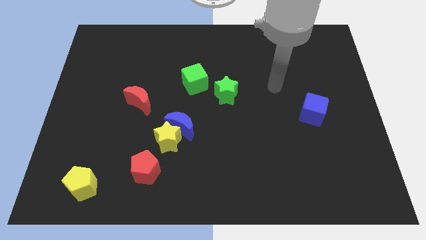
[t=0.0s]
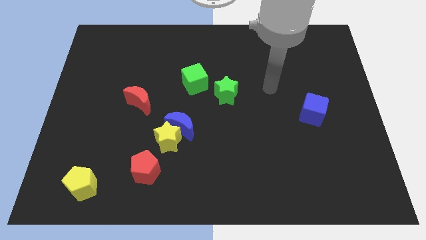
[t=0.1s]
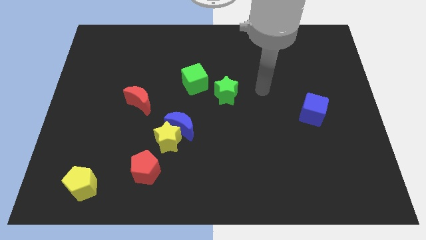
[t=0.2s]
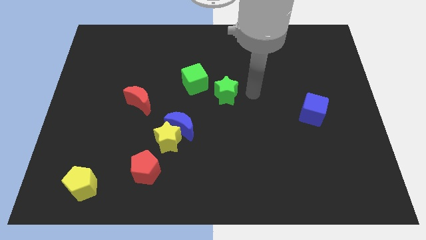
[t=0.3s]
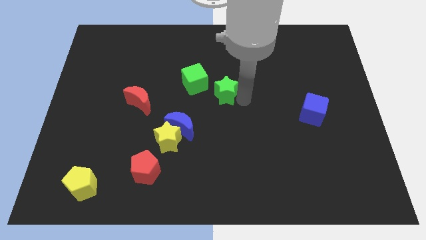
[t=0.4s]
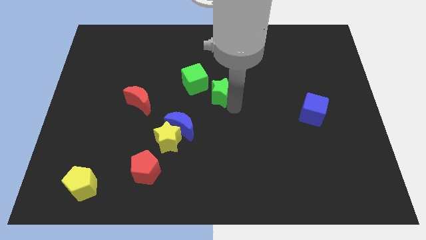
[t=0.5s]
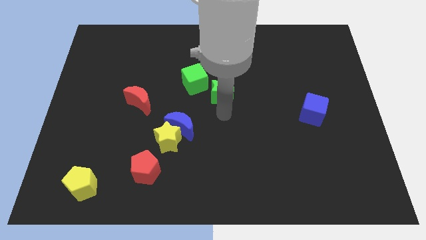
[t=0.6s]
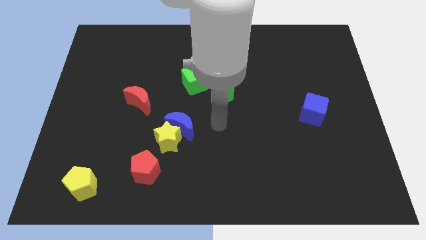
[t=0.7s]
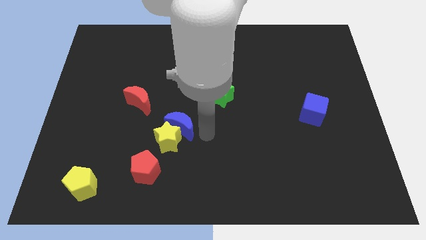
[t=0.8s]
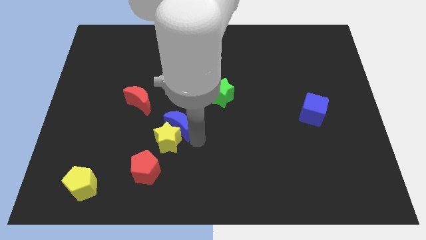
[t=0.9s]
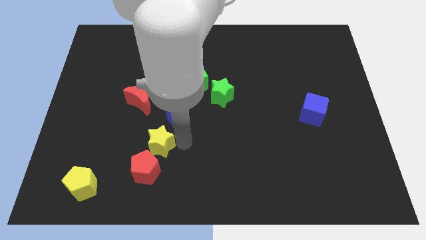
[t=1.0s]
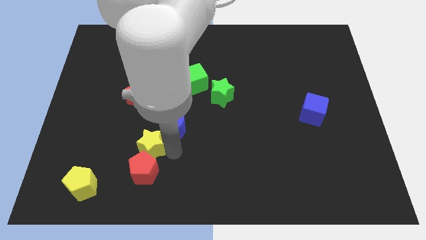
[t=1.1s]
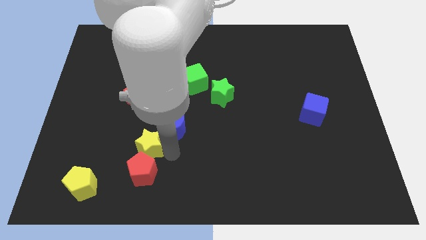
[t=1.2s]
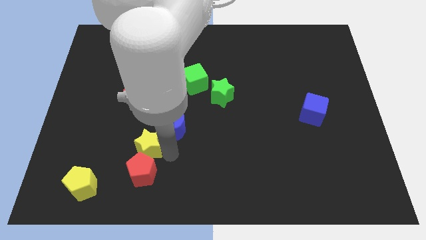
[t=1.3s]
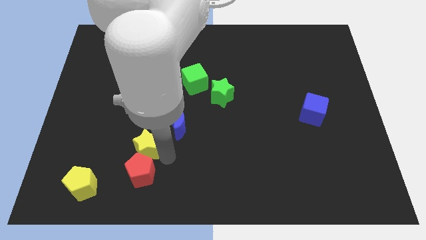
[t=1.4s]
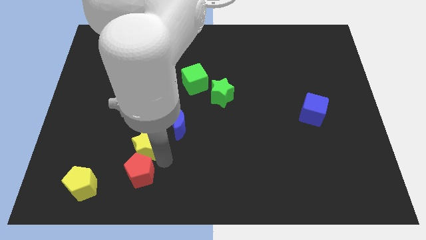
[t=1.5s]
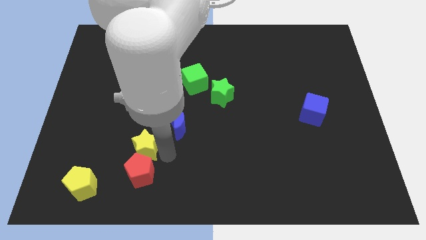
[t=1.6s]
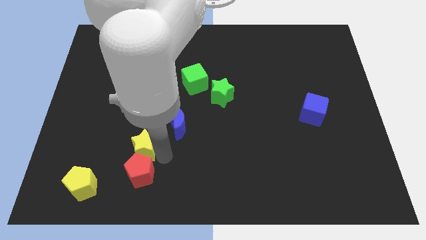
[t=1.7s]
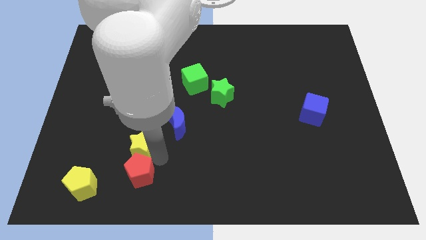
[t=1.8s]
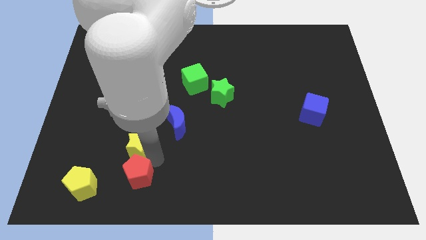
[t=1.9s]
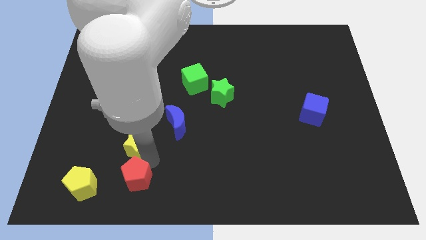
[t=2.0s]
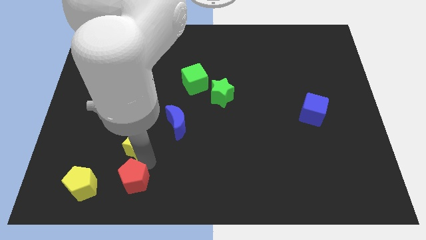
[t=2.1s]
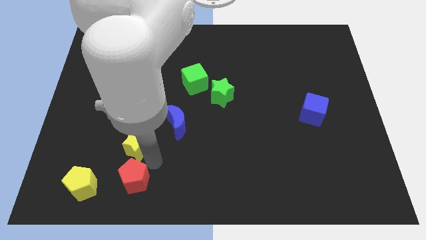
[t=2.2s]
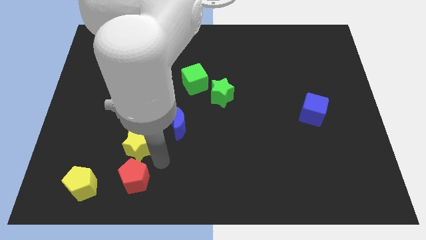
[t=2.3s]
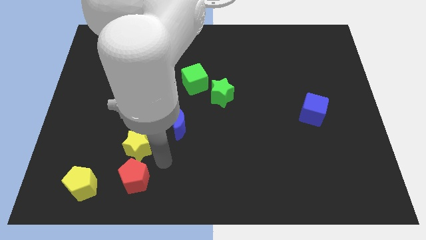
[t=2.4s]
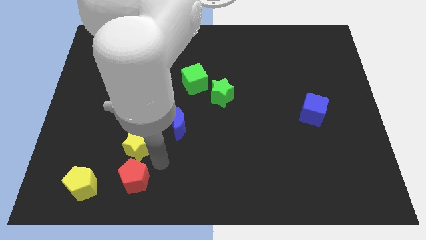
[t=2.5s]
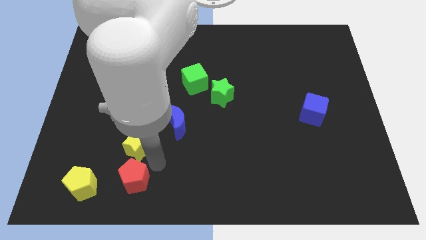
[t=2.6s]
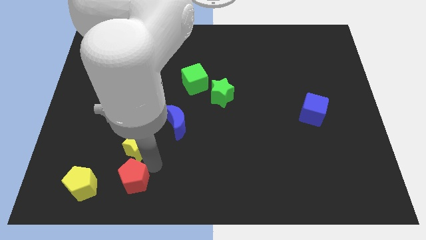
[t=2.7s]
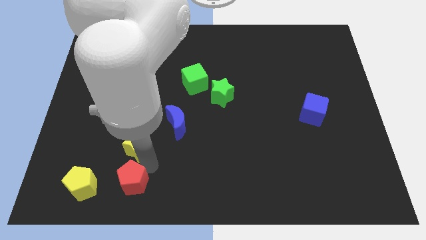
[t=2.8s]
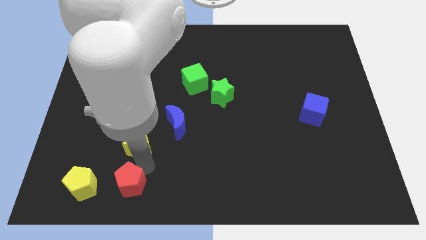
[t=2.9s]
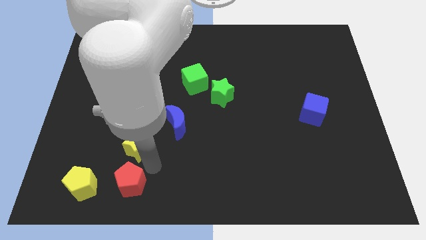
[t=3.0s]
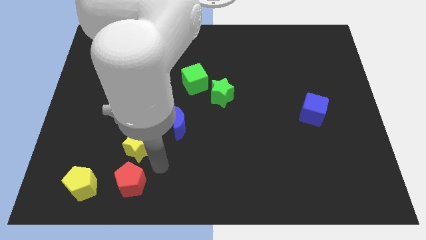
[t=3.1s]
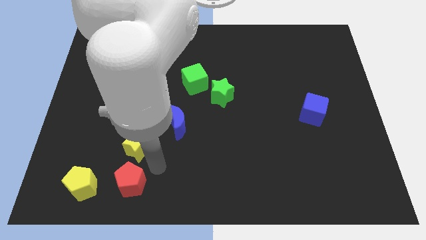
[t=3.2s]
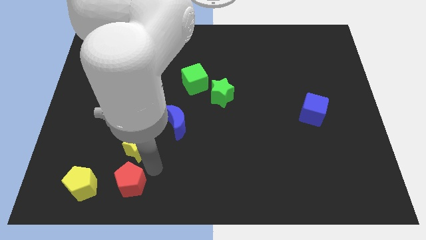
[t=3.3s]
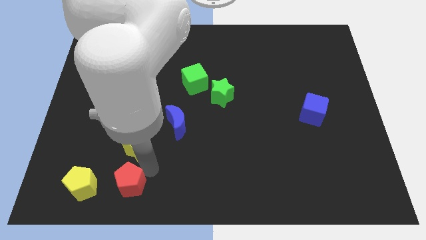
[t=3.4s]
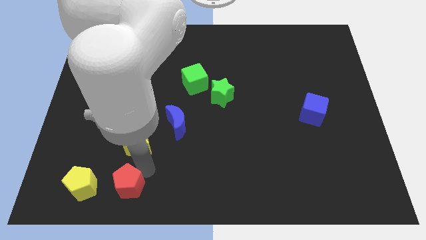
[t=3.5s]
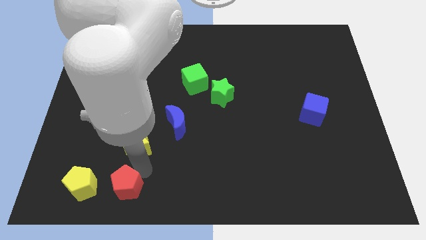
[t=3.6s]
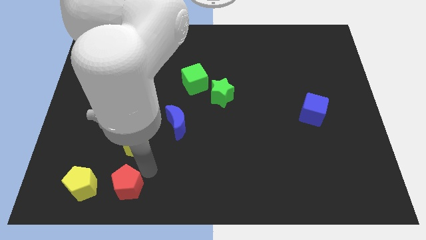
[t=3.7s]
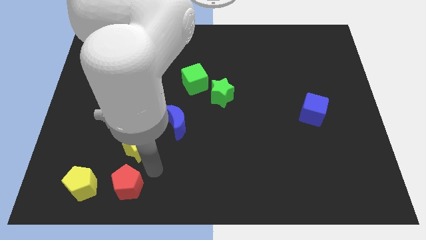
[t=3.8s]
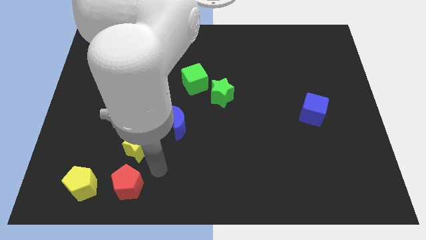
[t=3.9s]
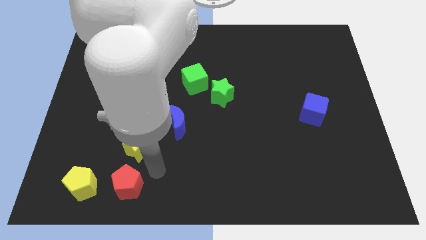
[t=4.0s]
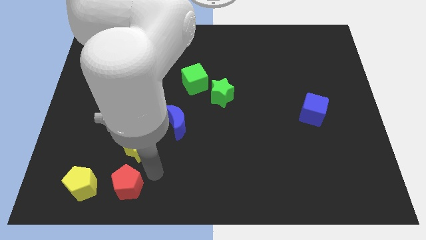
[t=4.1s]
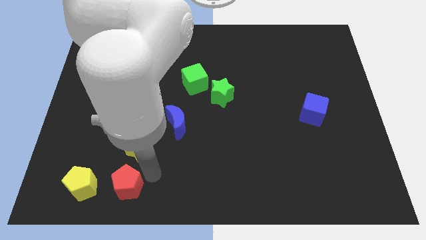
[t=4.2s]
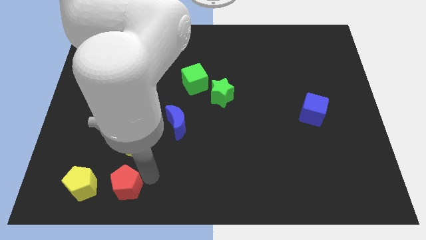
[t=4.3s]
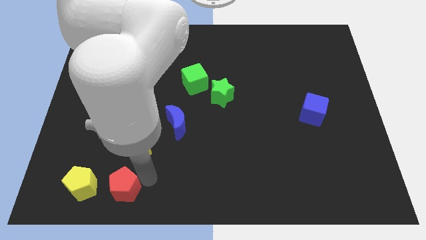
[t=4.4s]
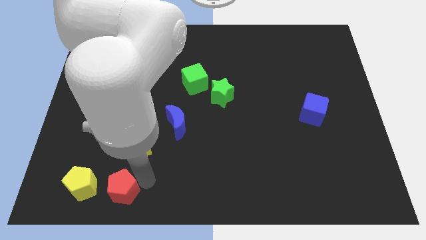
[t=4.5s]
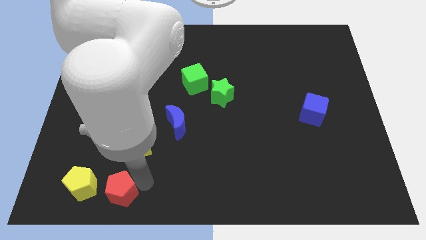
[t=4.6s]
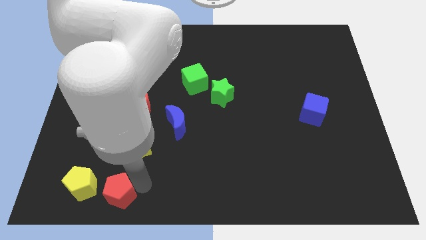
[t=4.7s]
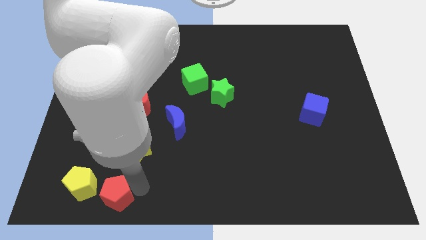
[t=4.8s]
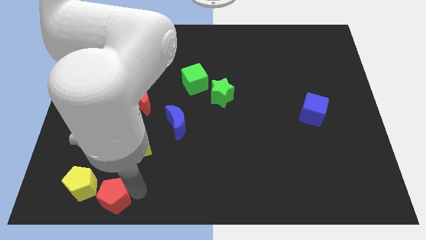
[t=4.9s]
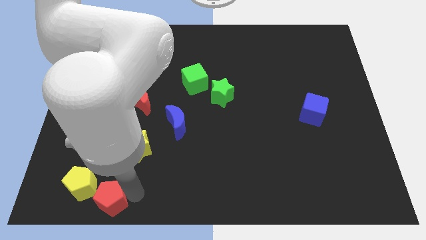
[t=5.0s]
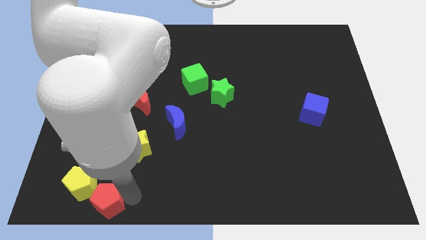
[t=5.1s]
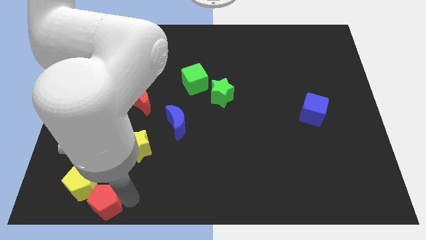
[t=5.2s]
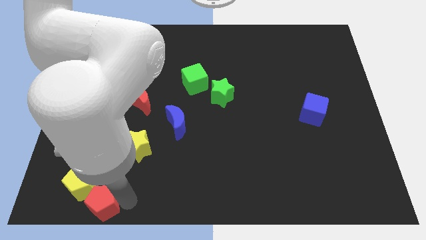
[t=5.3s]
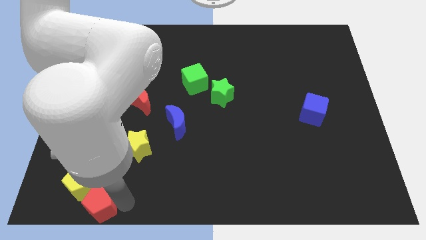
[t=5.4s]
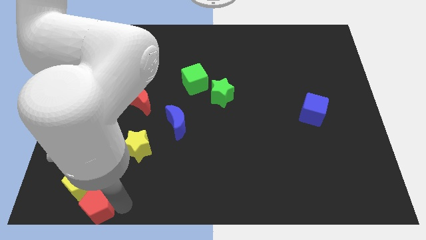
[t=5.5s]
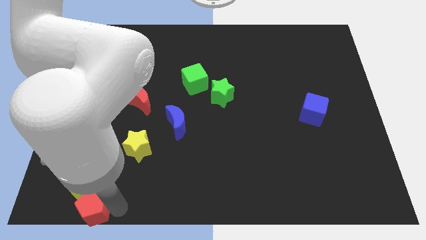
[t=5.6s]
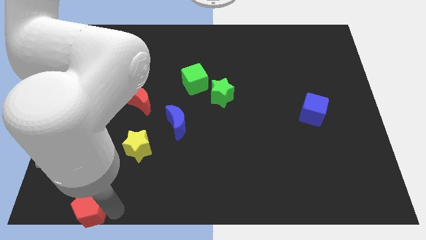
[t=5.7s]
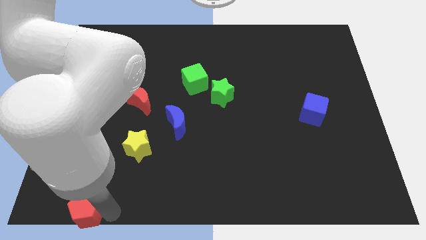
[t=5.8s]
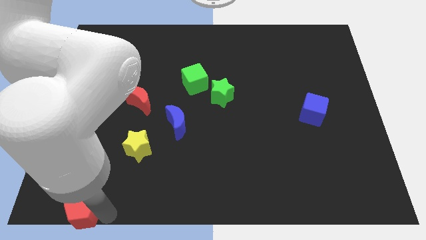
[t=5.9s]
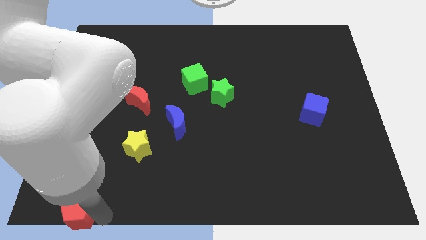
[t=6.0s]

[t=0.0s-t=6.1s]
push the red pentagon to the bottom left

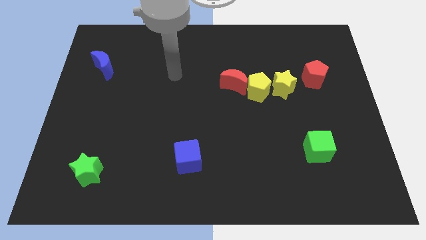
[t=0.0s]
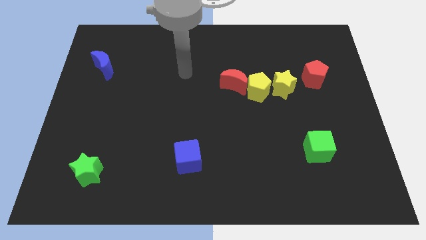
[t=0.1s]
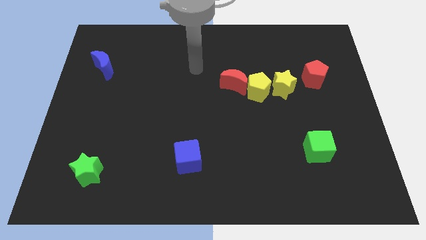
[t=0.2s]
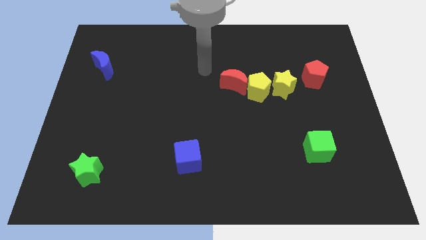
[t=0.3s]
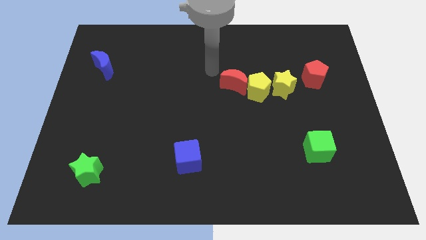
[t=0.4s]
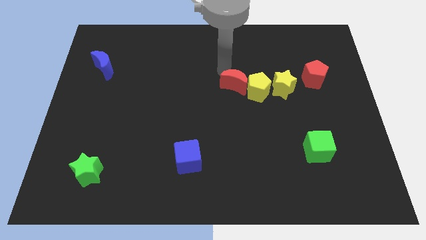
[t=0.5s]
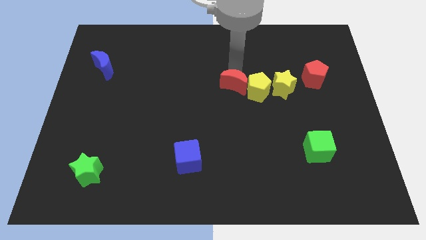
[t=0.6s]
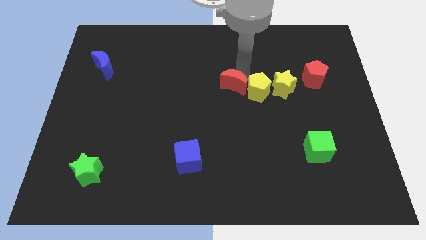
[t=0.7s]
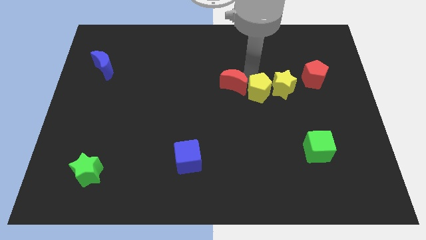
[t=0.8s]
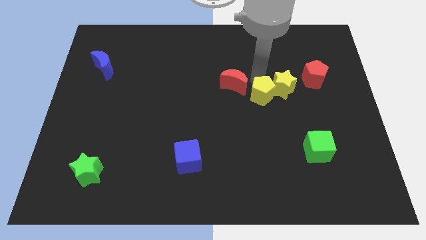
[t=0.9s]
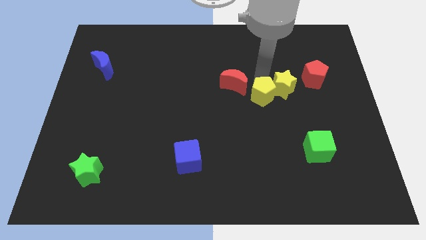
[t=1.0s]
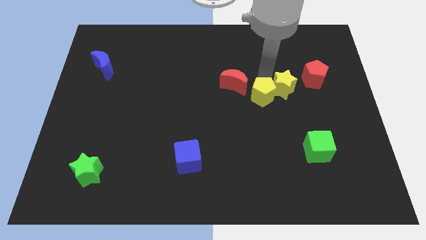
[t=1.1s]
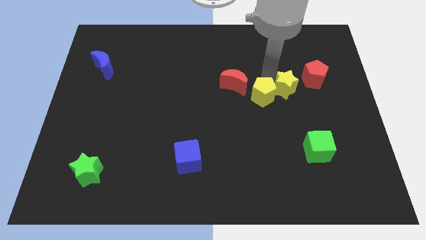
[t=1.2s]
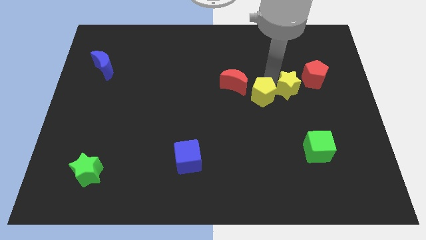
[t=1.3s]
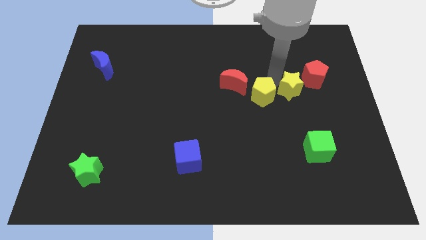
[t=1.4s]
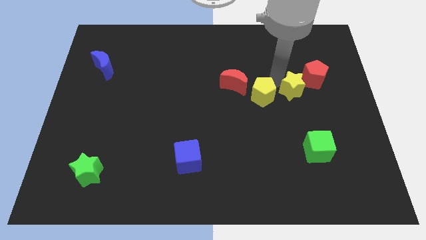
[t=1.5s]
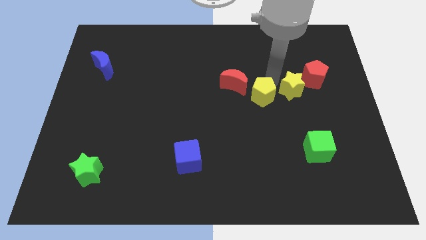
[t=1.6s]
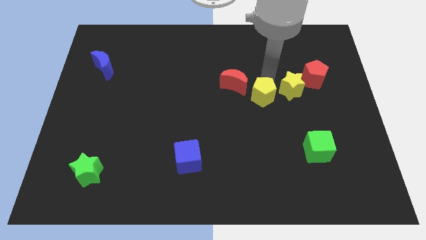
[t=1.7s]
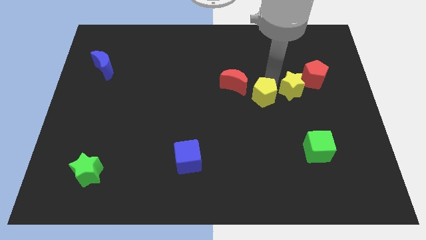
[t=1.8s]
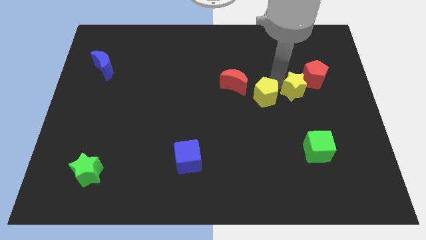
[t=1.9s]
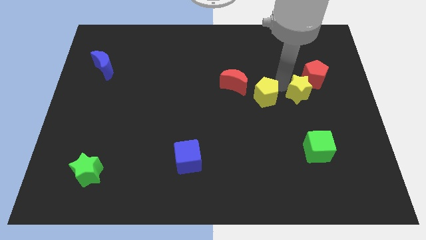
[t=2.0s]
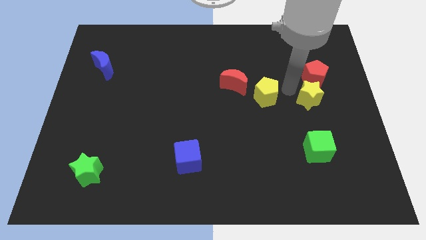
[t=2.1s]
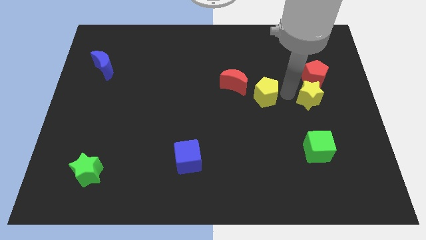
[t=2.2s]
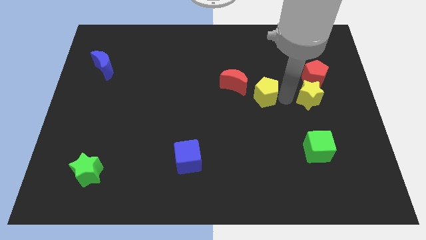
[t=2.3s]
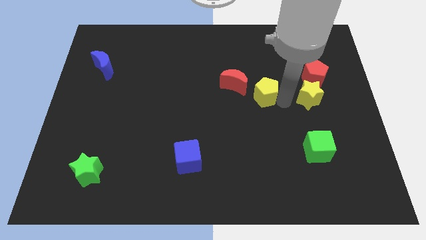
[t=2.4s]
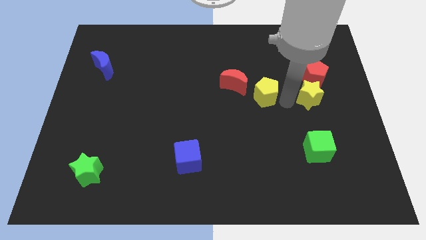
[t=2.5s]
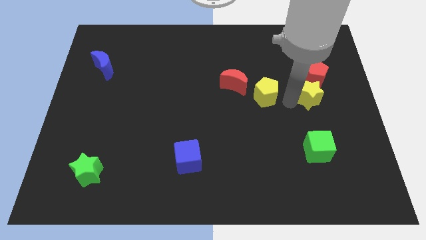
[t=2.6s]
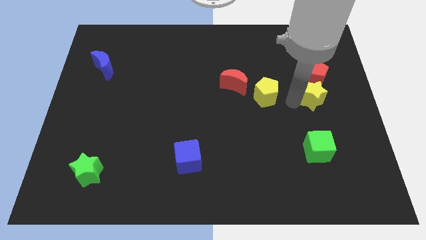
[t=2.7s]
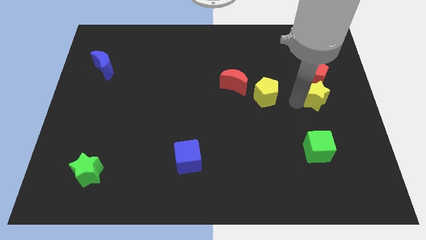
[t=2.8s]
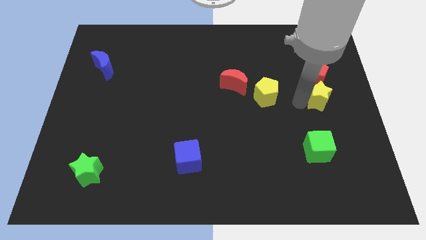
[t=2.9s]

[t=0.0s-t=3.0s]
move the yellow star to the right side
